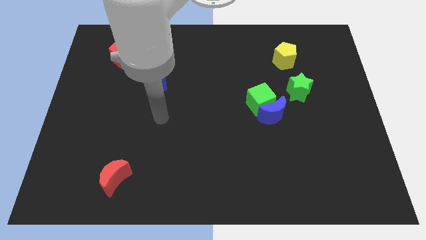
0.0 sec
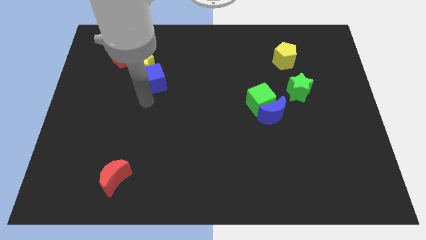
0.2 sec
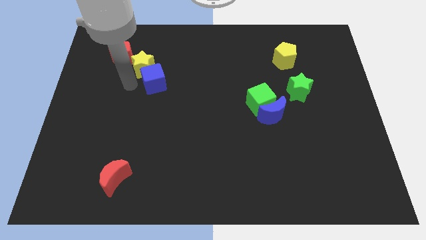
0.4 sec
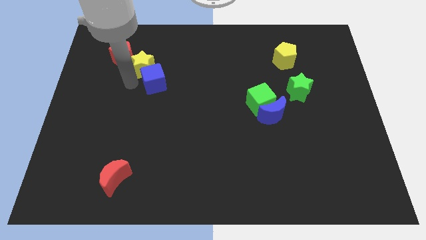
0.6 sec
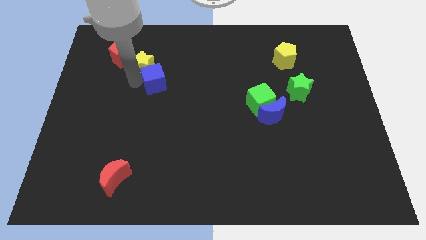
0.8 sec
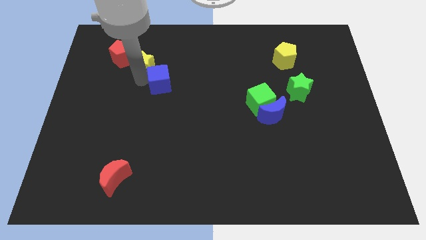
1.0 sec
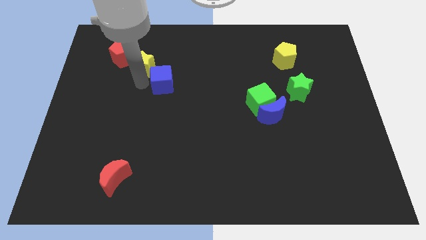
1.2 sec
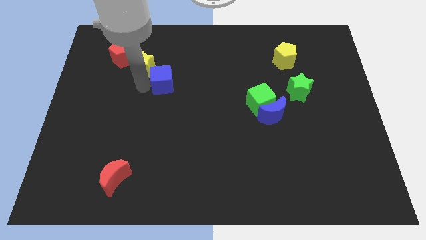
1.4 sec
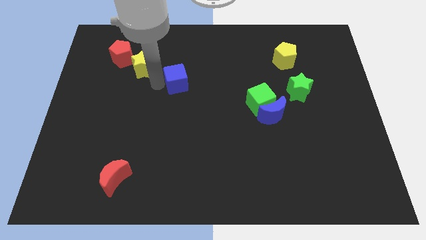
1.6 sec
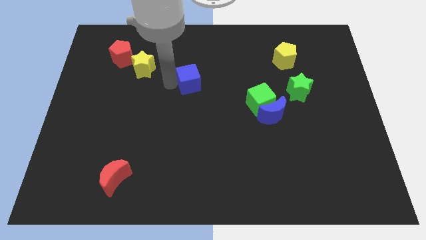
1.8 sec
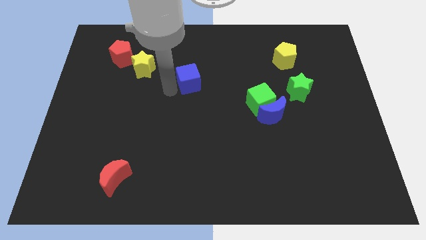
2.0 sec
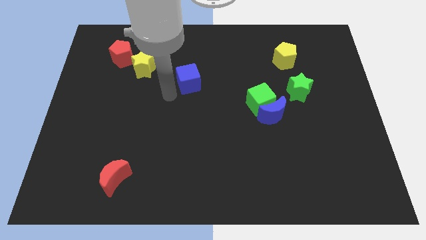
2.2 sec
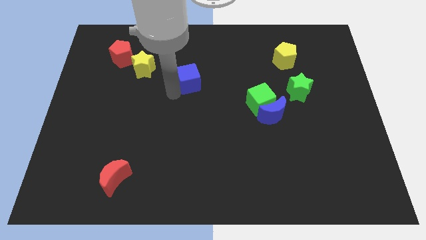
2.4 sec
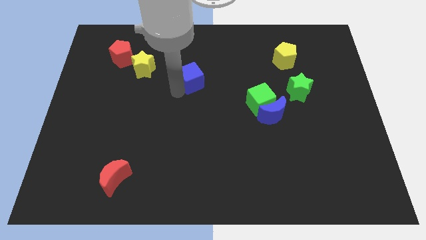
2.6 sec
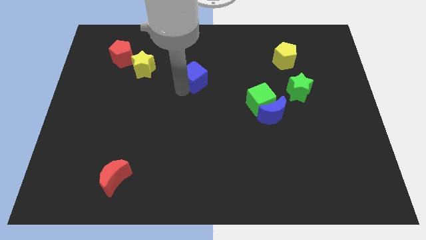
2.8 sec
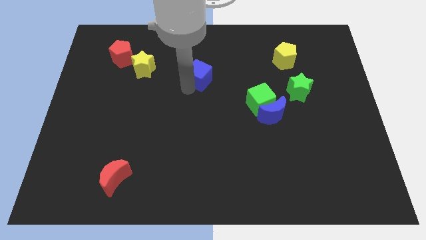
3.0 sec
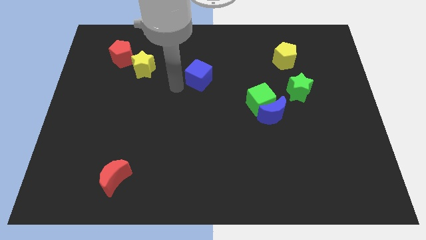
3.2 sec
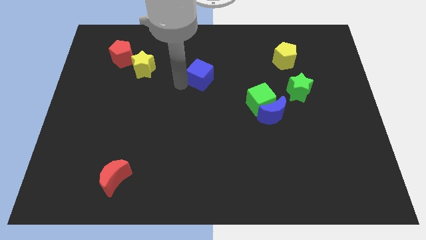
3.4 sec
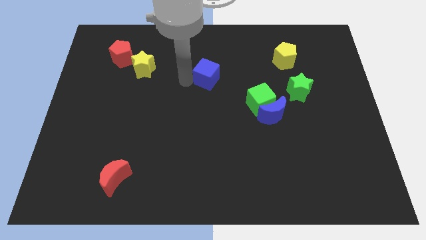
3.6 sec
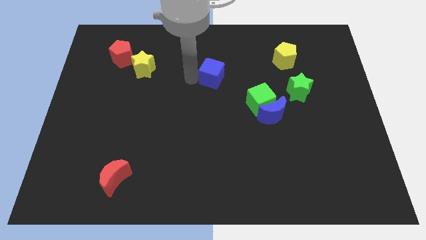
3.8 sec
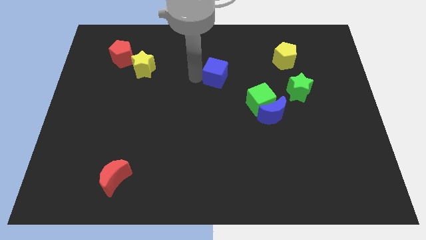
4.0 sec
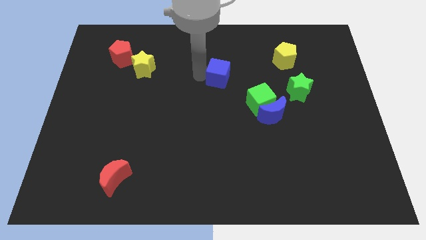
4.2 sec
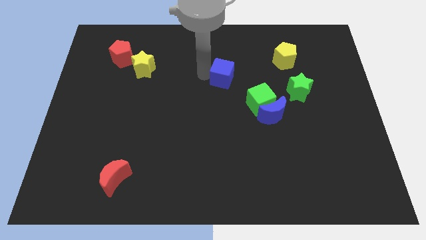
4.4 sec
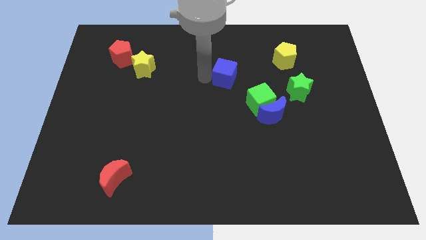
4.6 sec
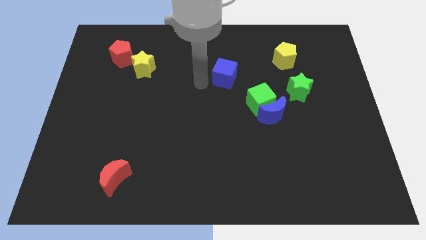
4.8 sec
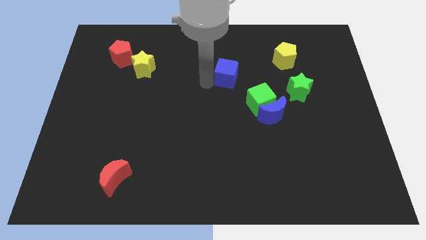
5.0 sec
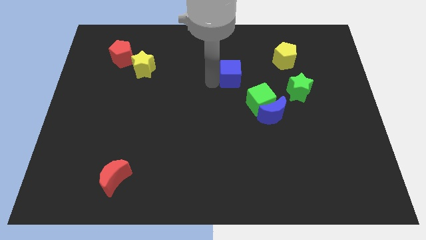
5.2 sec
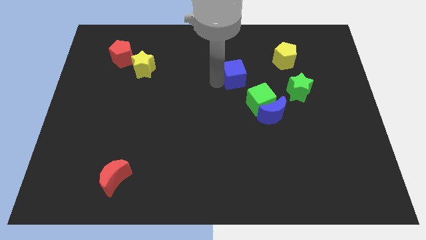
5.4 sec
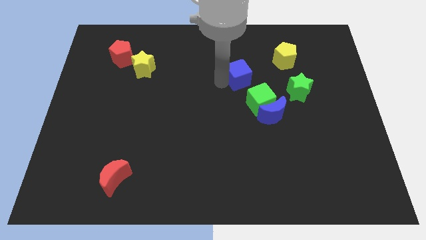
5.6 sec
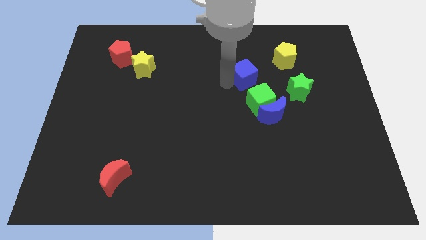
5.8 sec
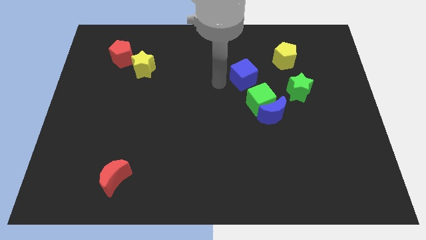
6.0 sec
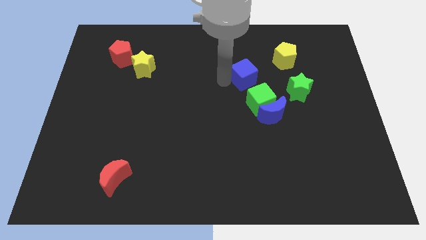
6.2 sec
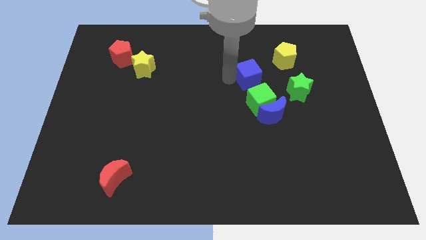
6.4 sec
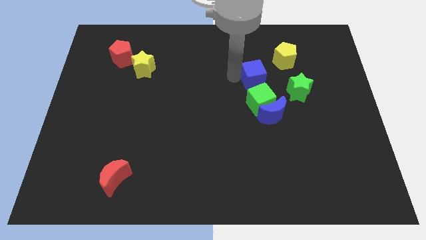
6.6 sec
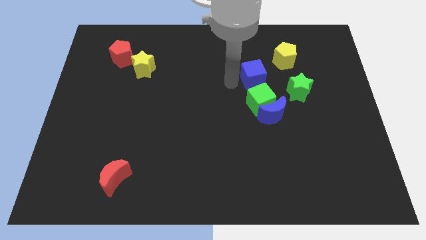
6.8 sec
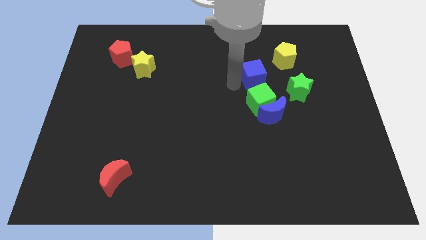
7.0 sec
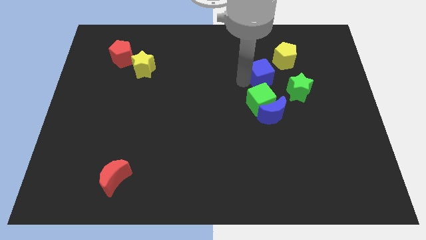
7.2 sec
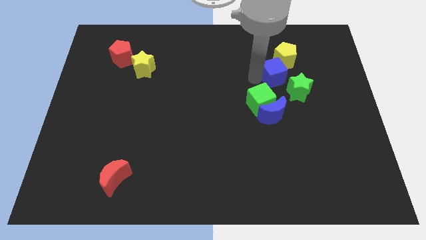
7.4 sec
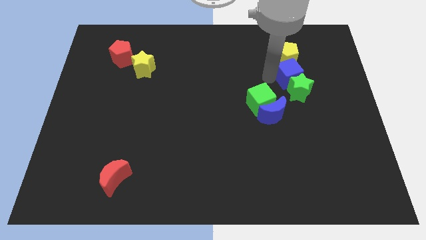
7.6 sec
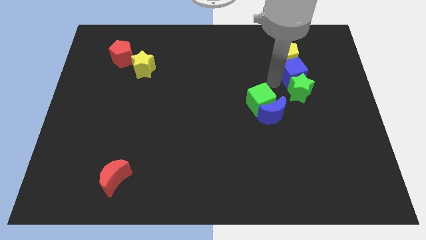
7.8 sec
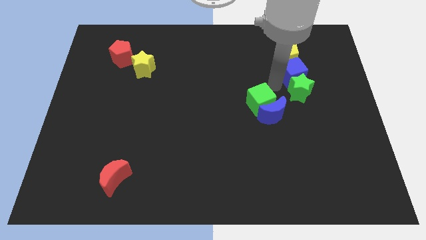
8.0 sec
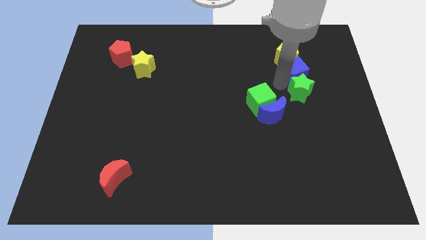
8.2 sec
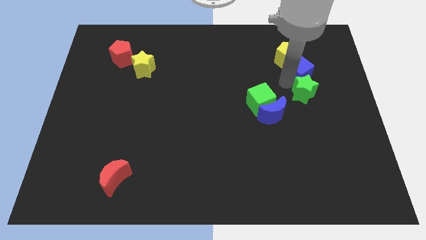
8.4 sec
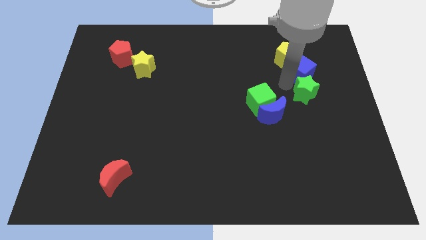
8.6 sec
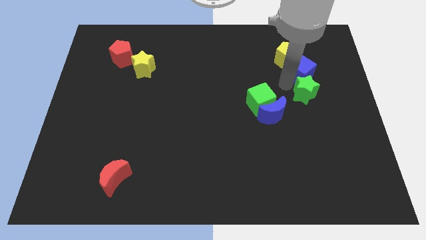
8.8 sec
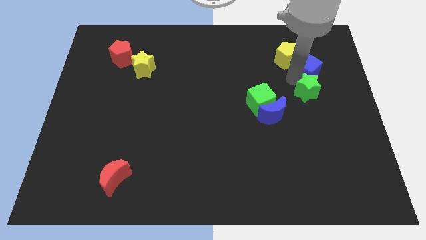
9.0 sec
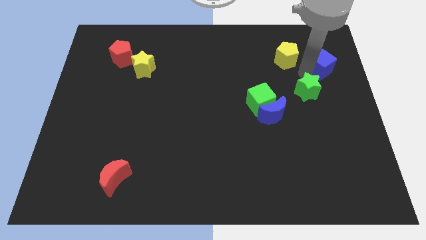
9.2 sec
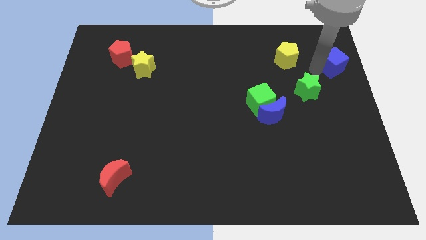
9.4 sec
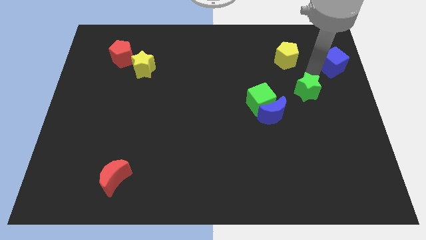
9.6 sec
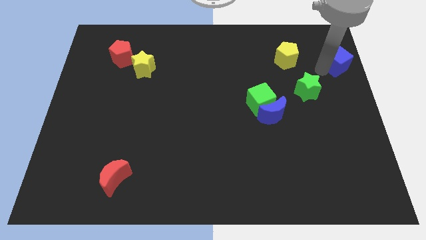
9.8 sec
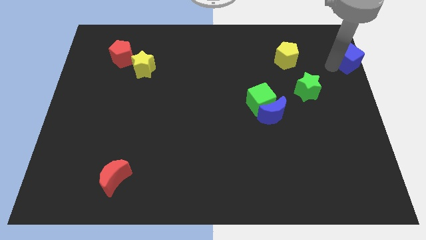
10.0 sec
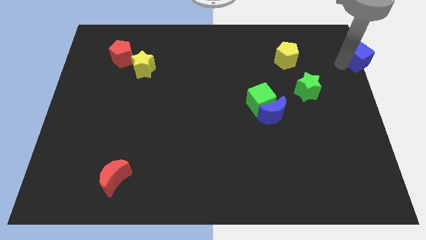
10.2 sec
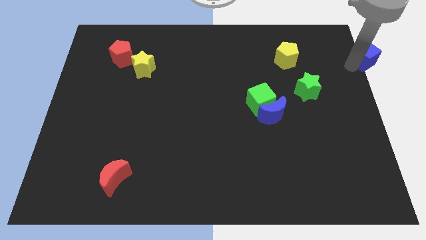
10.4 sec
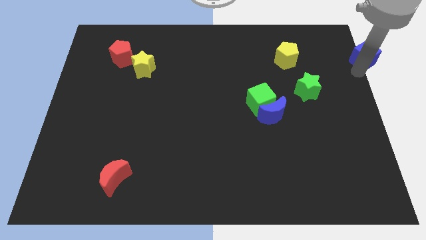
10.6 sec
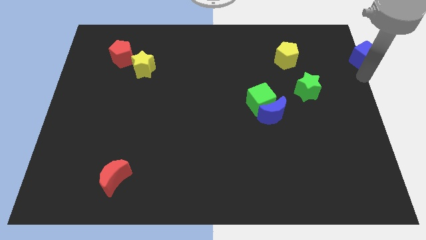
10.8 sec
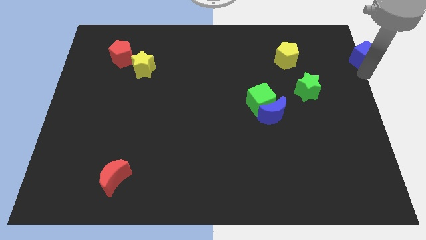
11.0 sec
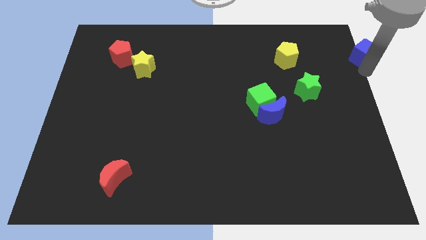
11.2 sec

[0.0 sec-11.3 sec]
push the blue cube to the top right

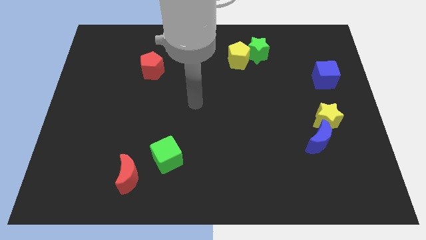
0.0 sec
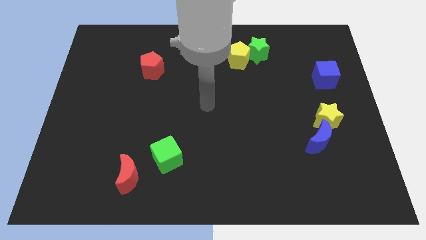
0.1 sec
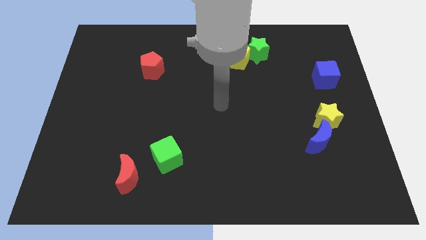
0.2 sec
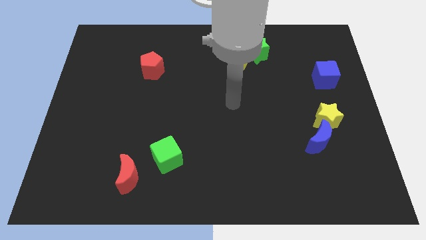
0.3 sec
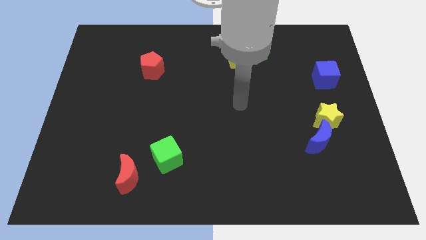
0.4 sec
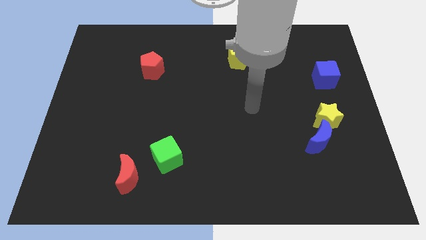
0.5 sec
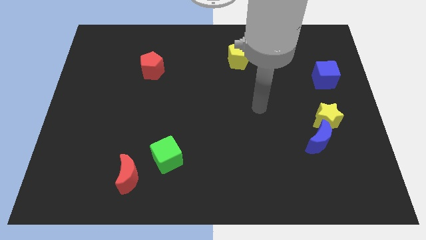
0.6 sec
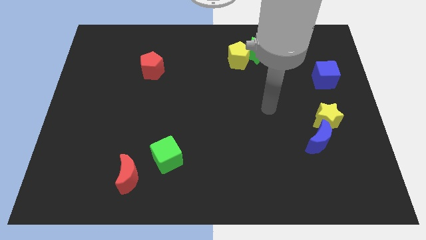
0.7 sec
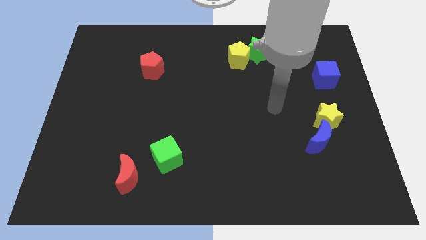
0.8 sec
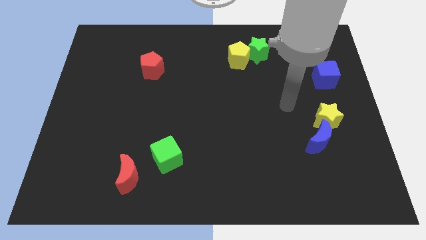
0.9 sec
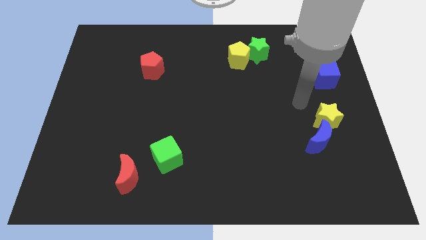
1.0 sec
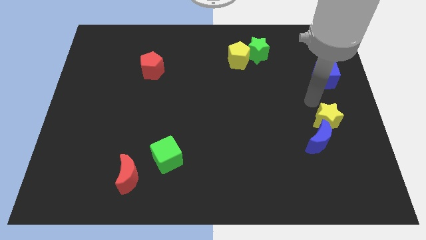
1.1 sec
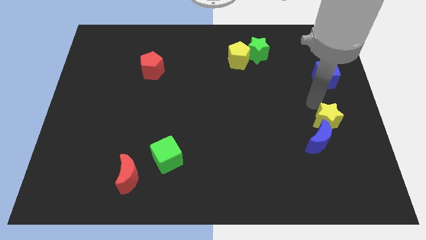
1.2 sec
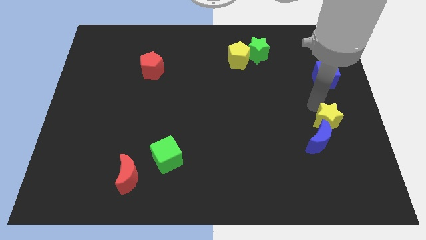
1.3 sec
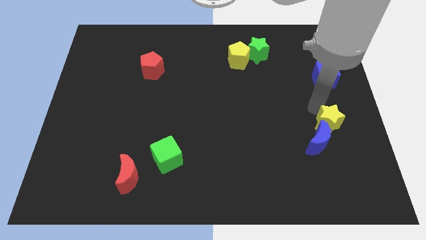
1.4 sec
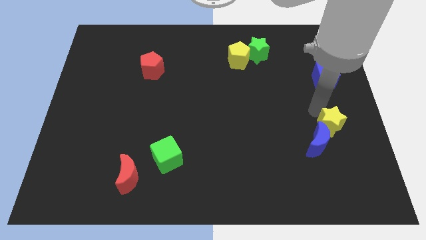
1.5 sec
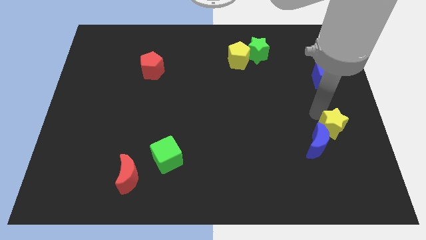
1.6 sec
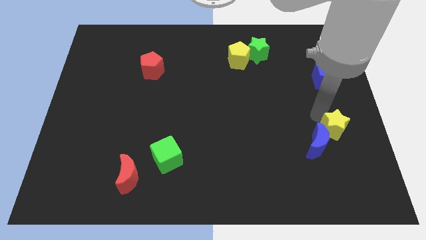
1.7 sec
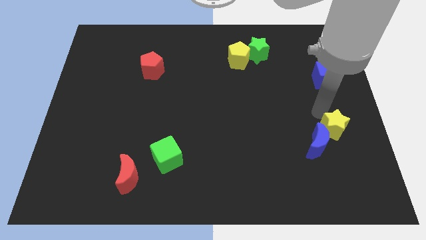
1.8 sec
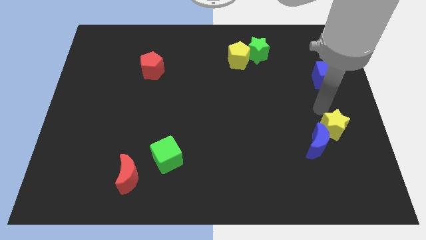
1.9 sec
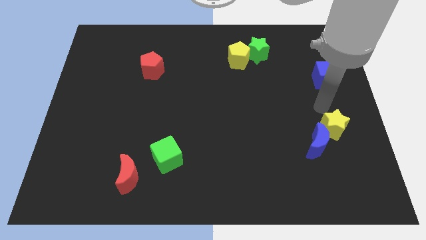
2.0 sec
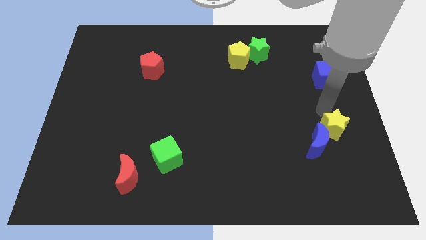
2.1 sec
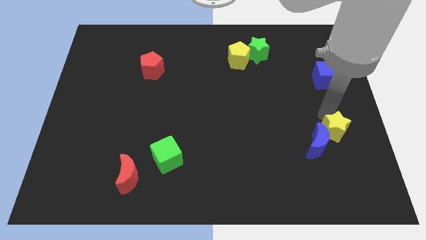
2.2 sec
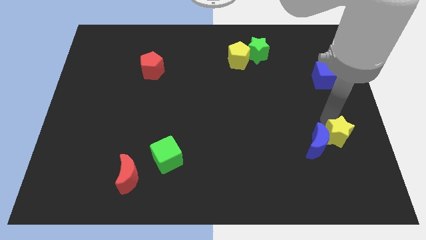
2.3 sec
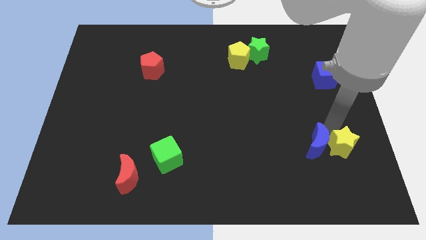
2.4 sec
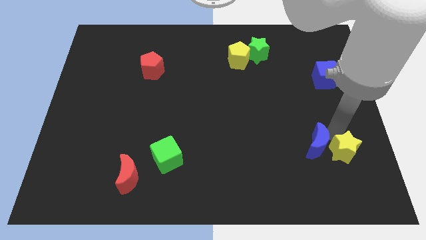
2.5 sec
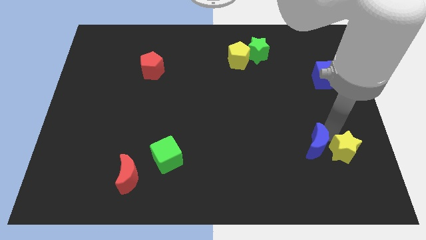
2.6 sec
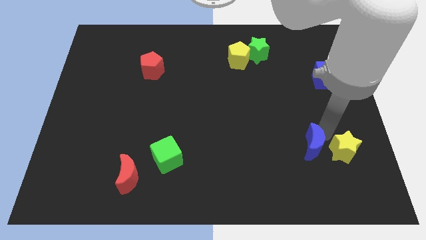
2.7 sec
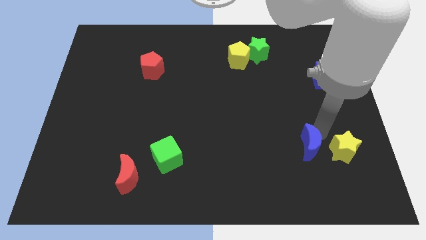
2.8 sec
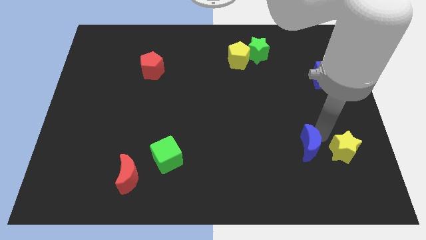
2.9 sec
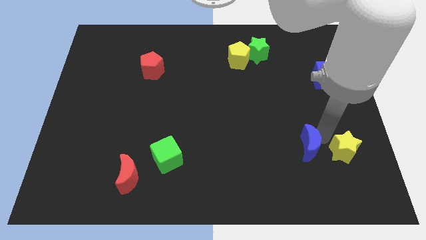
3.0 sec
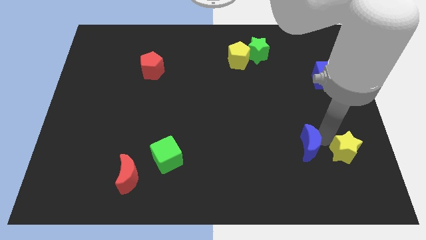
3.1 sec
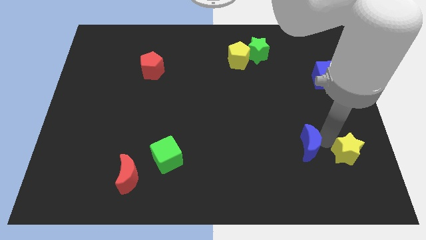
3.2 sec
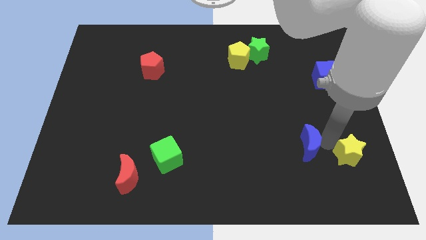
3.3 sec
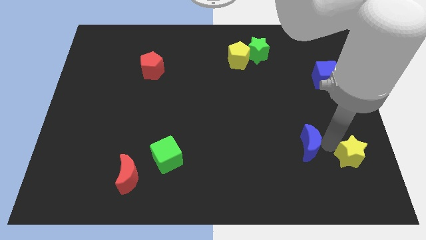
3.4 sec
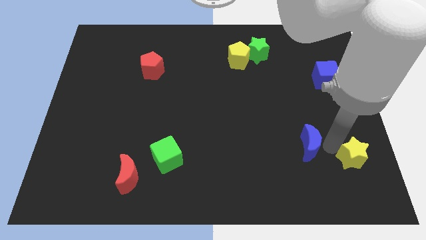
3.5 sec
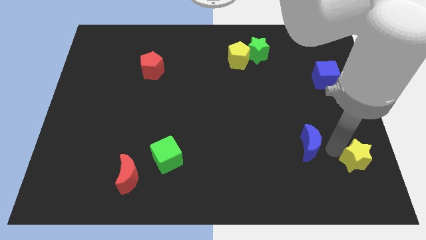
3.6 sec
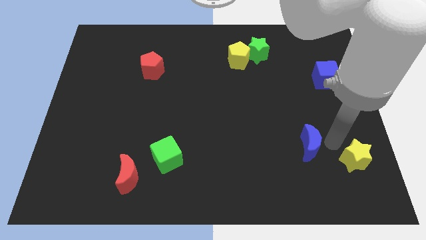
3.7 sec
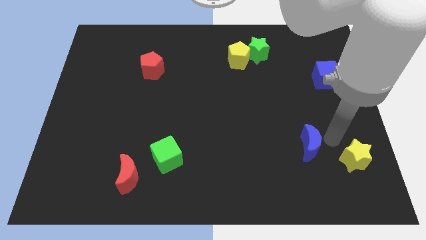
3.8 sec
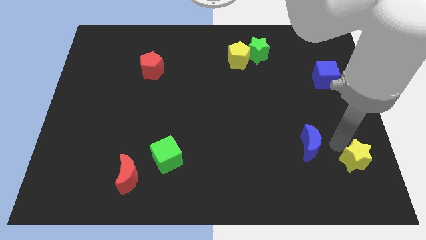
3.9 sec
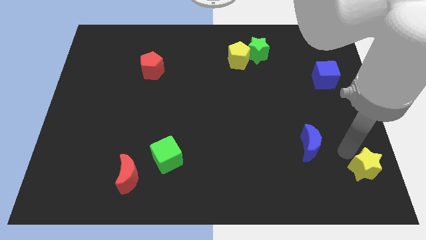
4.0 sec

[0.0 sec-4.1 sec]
push the yellow star to the bottom right corner
